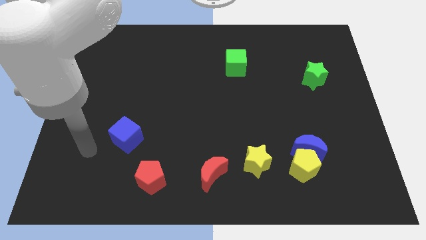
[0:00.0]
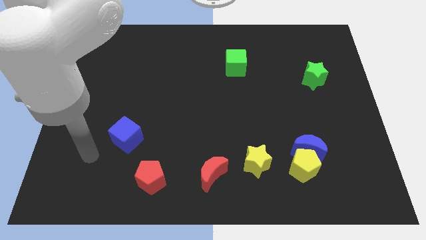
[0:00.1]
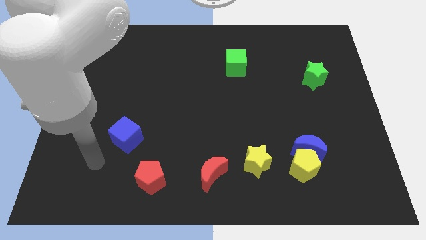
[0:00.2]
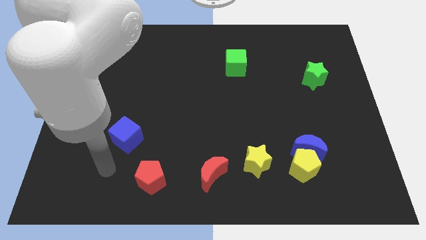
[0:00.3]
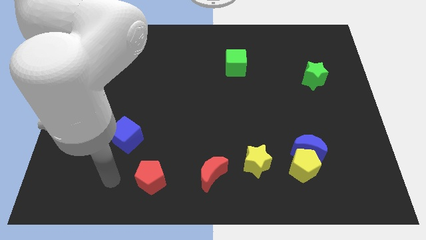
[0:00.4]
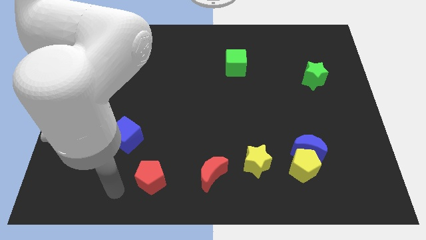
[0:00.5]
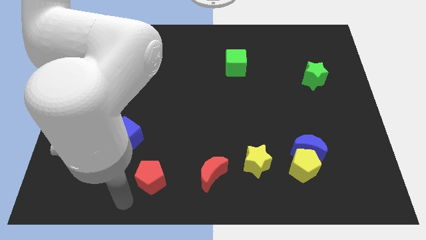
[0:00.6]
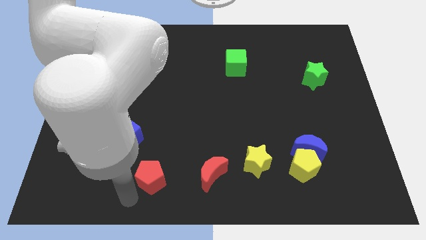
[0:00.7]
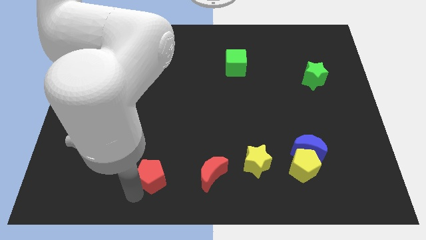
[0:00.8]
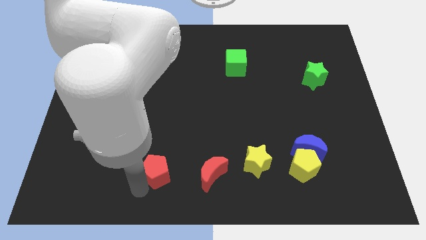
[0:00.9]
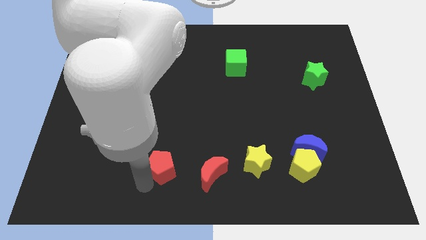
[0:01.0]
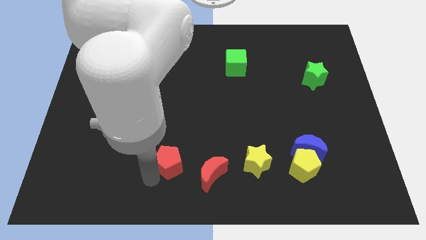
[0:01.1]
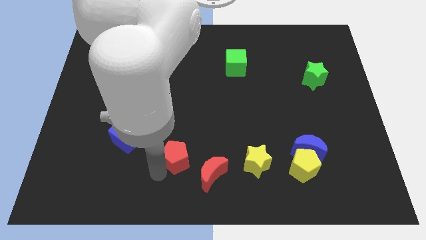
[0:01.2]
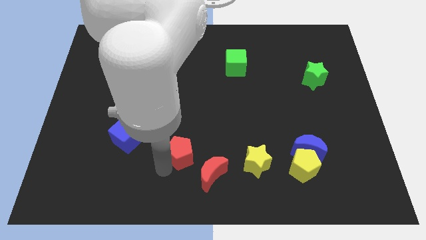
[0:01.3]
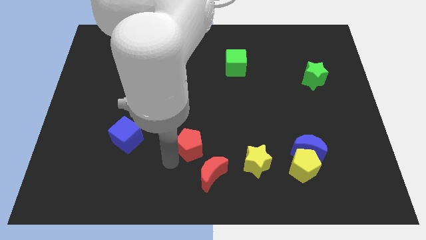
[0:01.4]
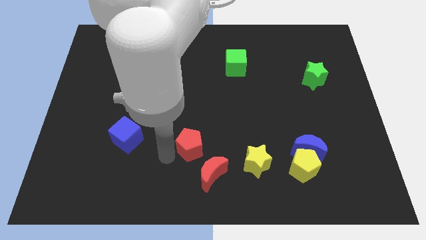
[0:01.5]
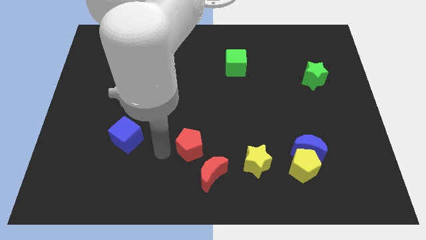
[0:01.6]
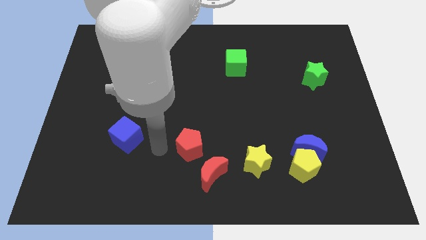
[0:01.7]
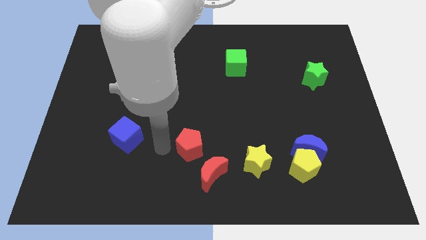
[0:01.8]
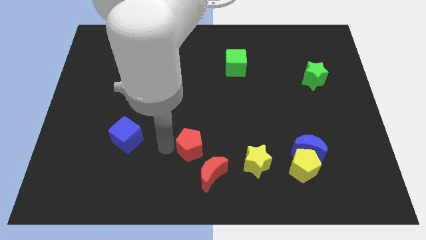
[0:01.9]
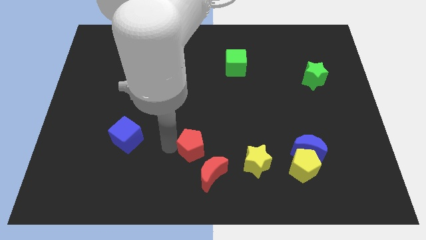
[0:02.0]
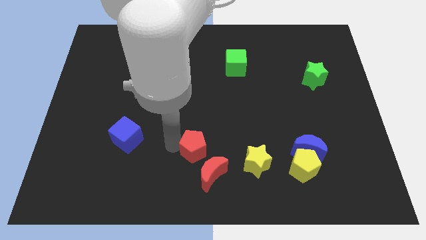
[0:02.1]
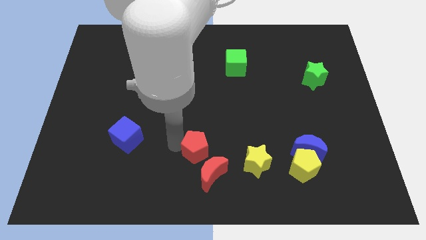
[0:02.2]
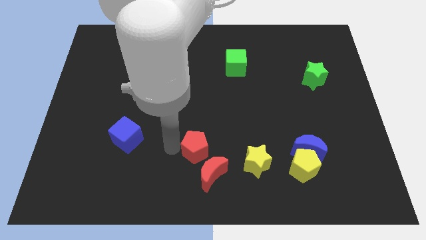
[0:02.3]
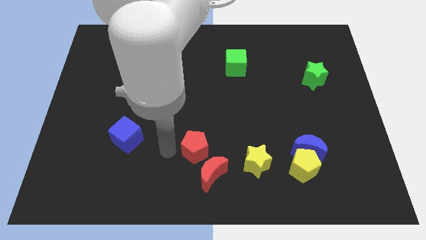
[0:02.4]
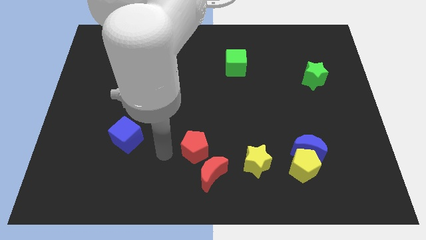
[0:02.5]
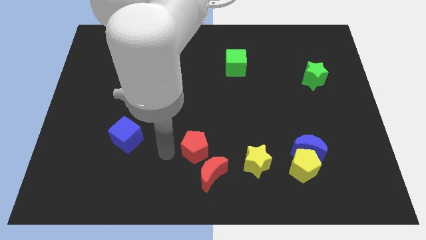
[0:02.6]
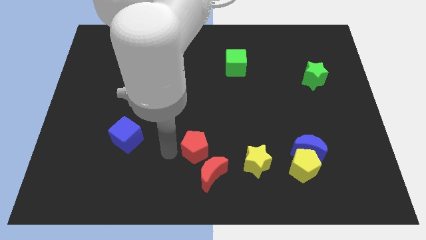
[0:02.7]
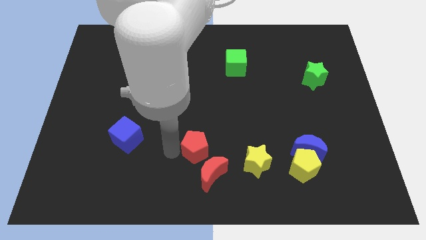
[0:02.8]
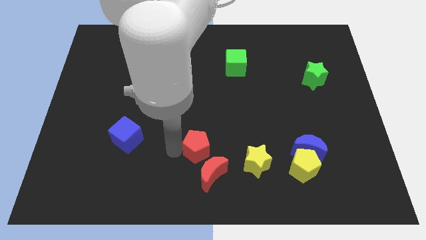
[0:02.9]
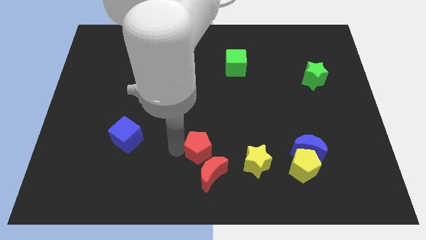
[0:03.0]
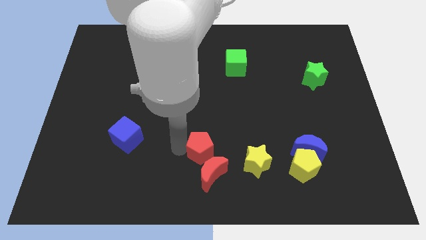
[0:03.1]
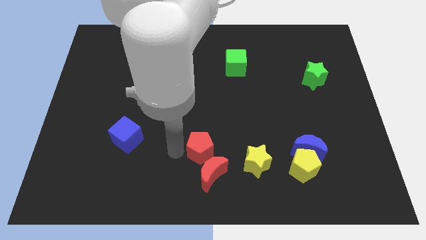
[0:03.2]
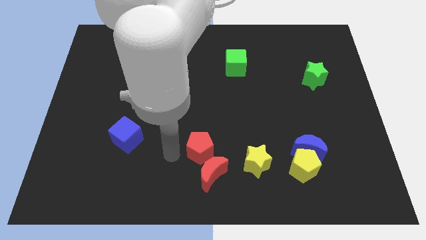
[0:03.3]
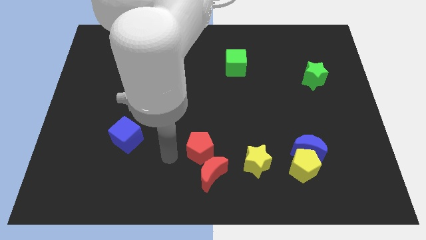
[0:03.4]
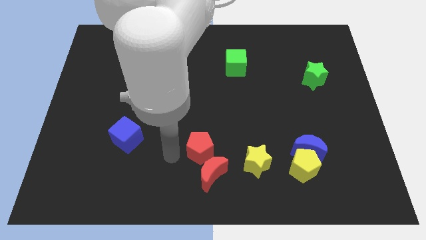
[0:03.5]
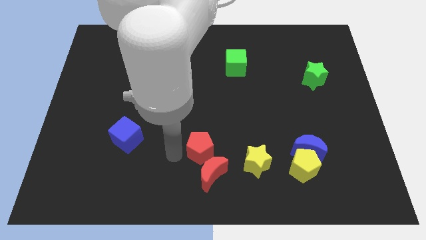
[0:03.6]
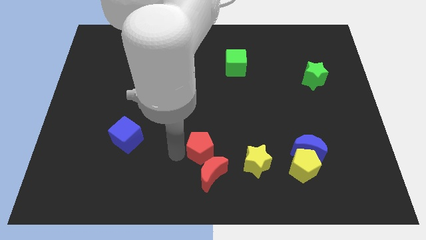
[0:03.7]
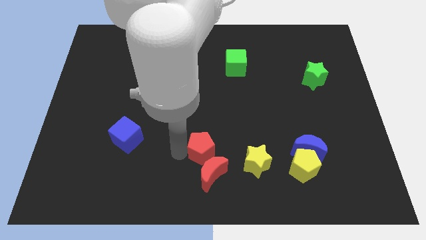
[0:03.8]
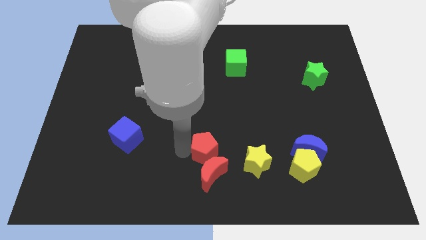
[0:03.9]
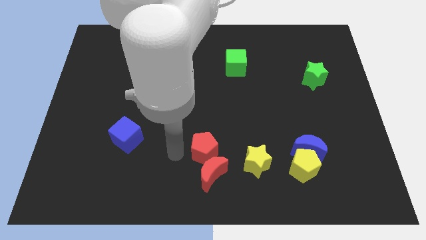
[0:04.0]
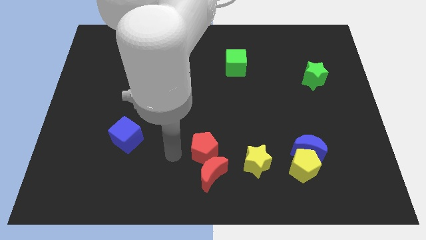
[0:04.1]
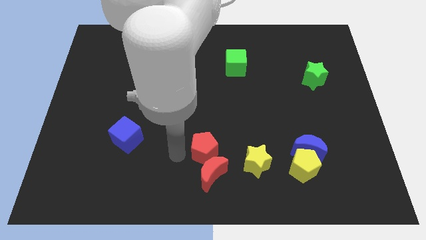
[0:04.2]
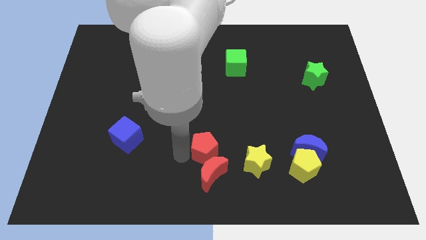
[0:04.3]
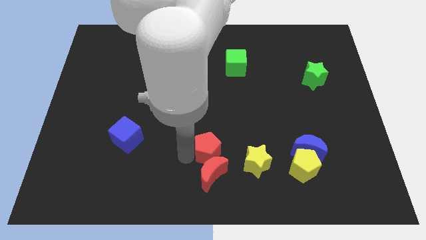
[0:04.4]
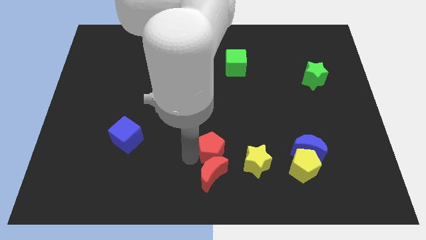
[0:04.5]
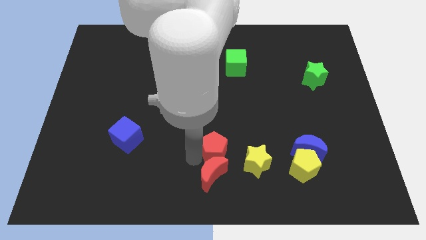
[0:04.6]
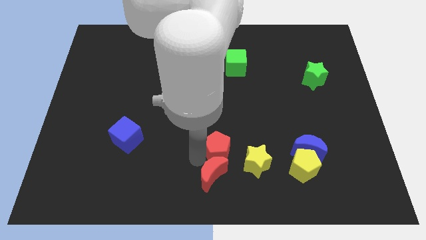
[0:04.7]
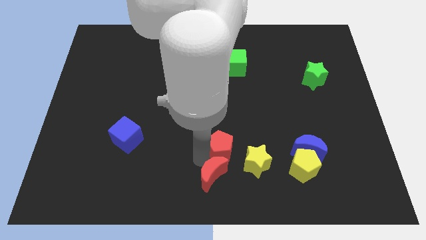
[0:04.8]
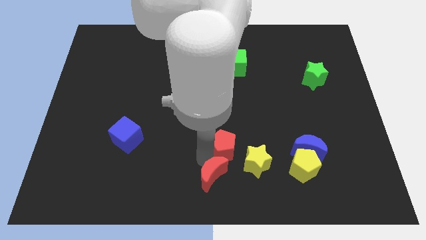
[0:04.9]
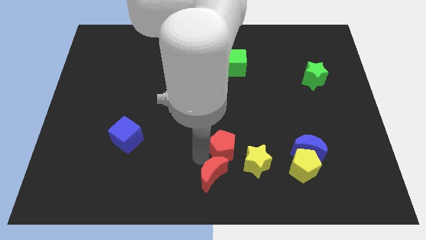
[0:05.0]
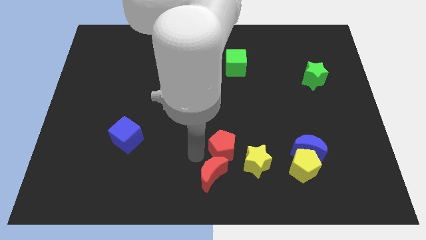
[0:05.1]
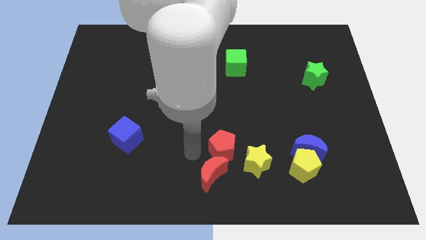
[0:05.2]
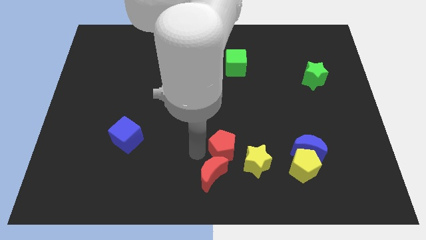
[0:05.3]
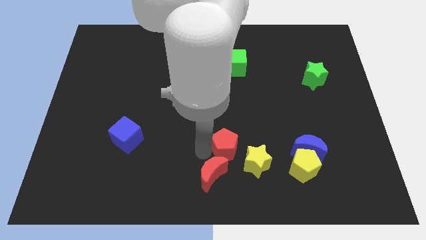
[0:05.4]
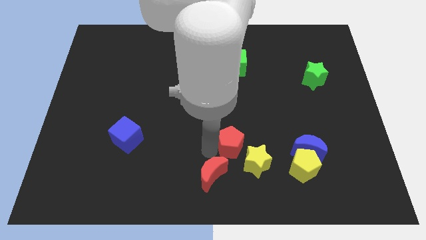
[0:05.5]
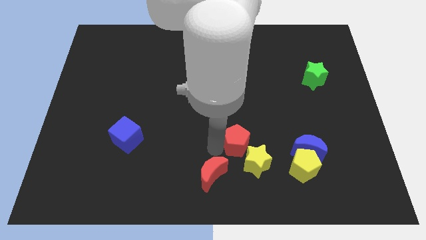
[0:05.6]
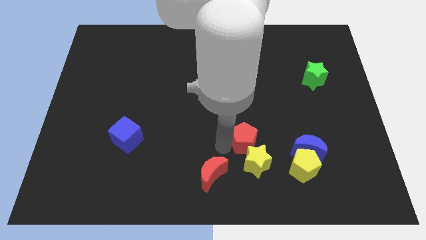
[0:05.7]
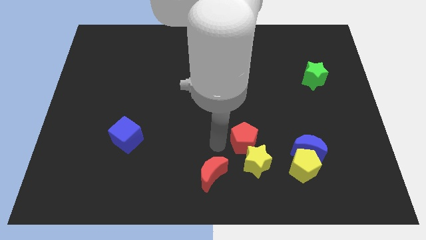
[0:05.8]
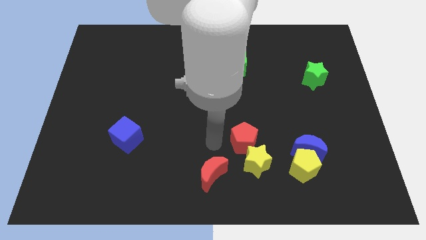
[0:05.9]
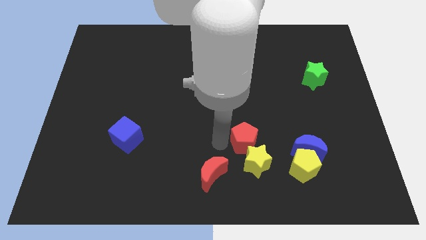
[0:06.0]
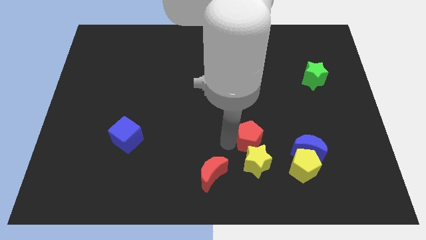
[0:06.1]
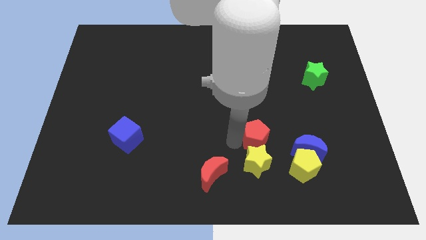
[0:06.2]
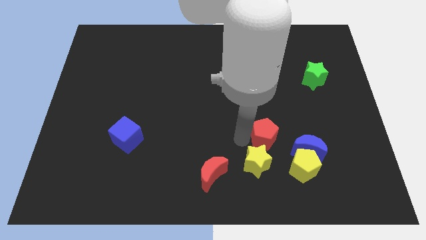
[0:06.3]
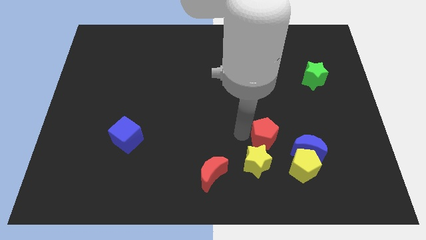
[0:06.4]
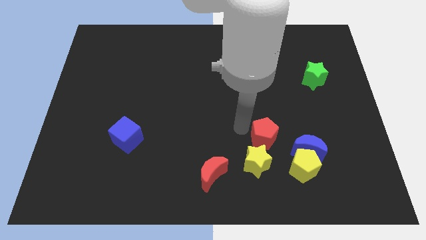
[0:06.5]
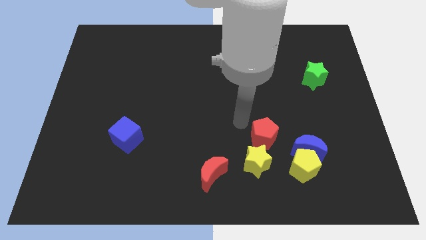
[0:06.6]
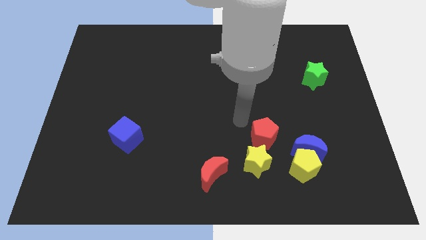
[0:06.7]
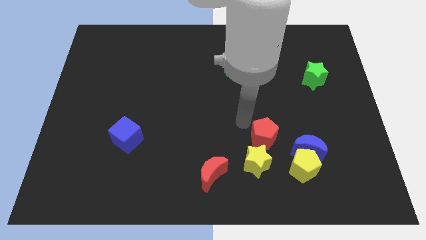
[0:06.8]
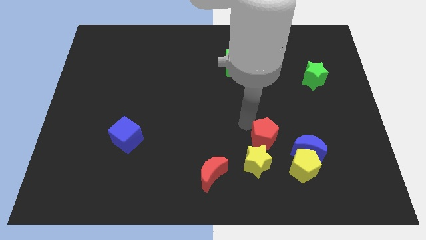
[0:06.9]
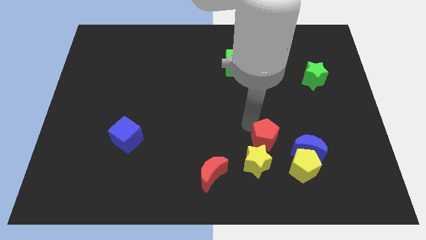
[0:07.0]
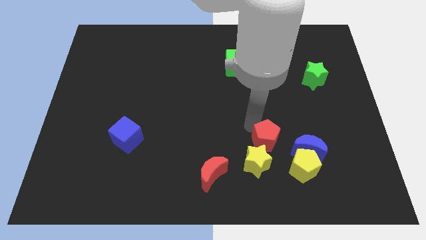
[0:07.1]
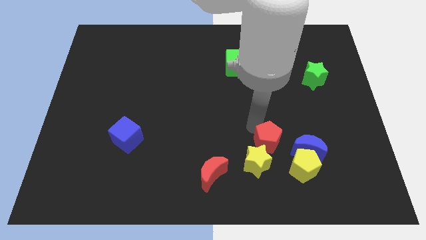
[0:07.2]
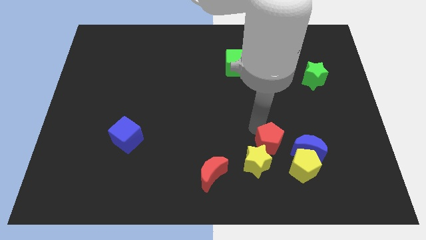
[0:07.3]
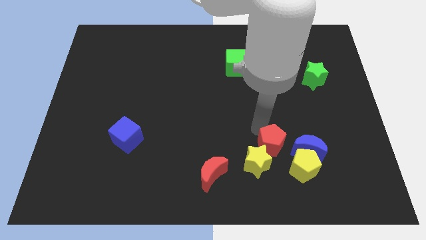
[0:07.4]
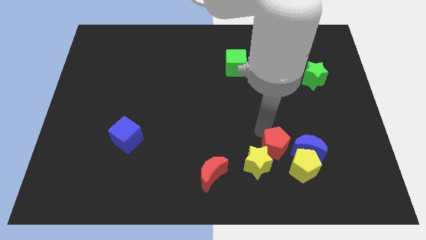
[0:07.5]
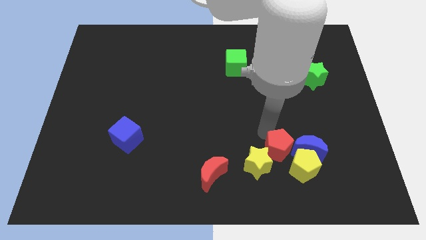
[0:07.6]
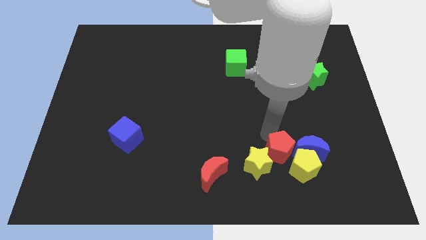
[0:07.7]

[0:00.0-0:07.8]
move the red pentagon next to the yellow pentagon
